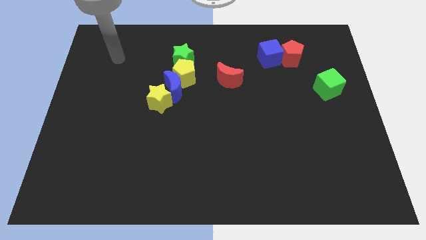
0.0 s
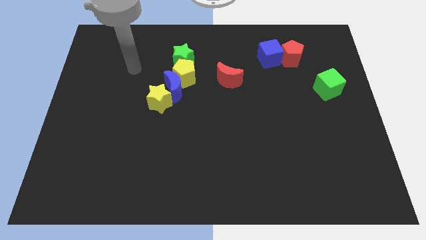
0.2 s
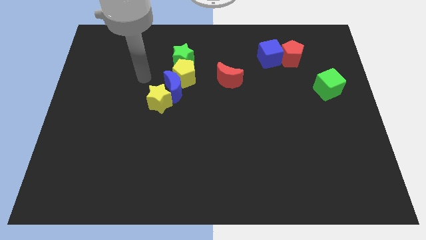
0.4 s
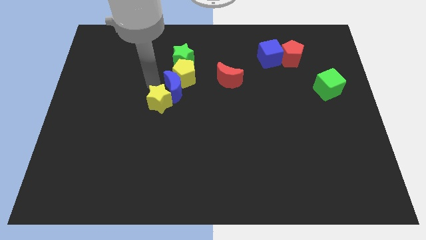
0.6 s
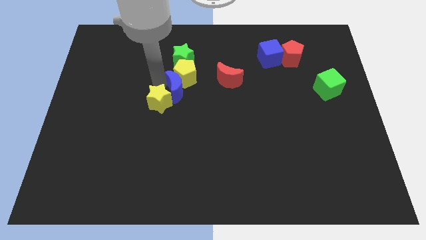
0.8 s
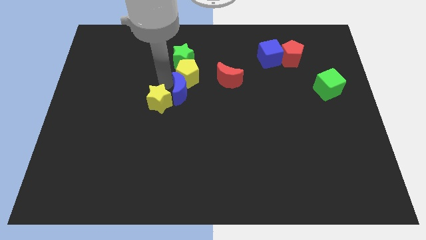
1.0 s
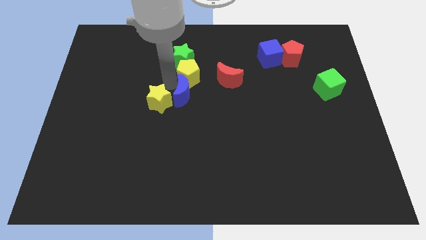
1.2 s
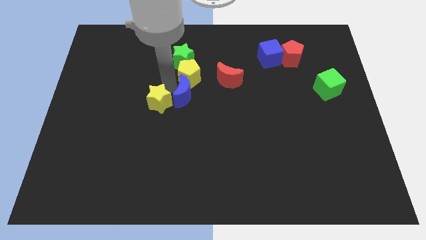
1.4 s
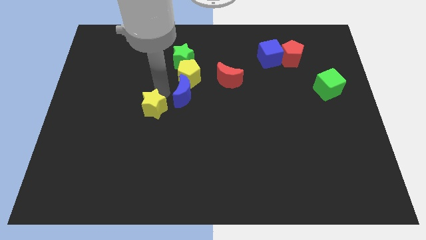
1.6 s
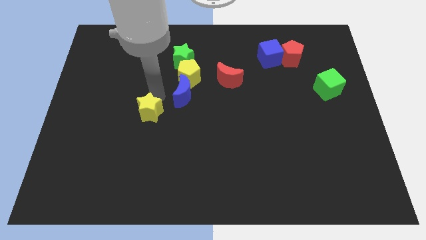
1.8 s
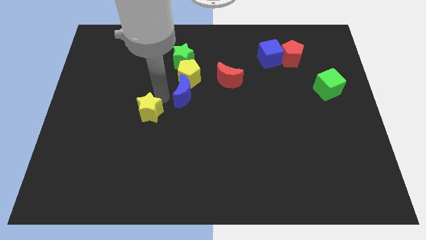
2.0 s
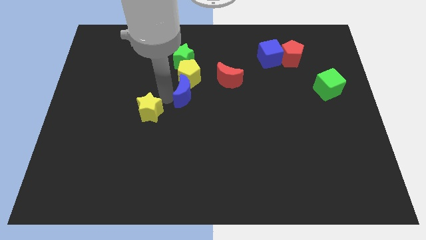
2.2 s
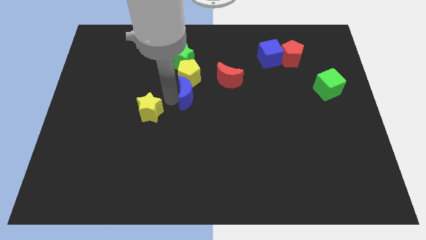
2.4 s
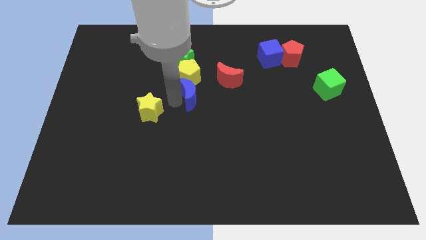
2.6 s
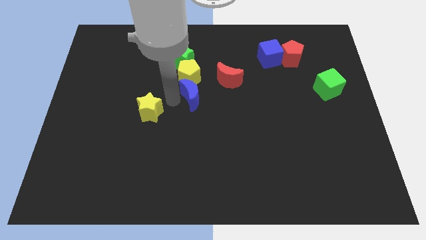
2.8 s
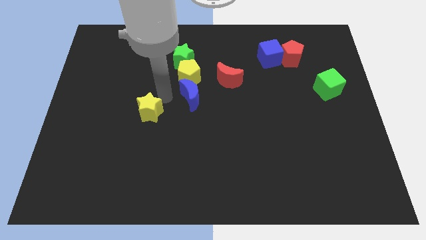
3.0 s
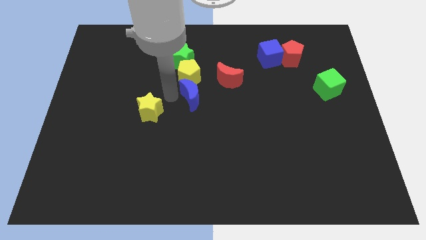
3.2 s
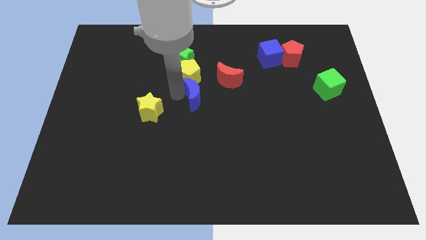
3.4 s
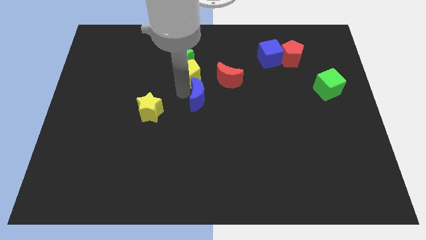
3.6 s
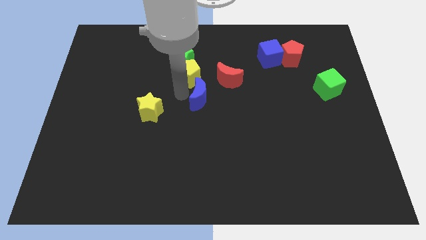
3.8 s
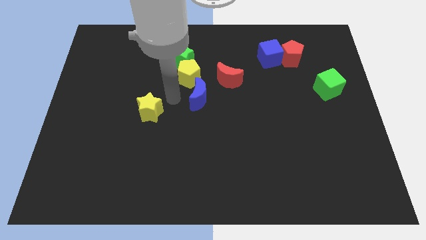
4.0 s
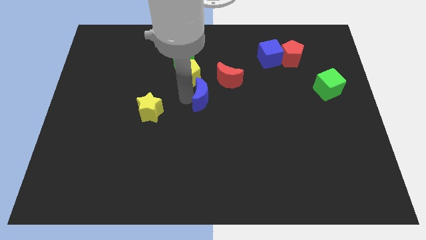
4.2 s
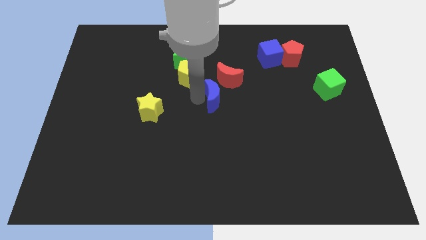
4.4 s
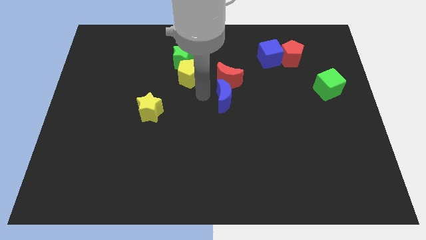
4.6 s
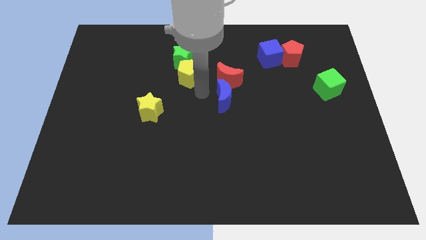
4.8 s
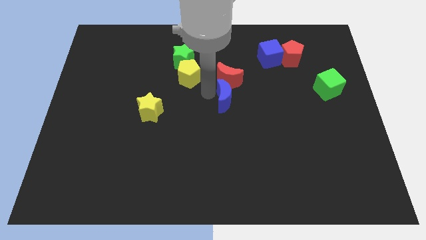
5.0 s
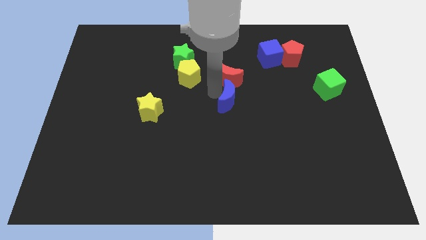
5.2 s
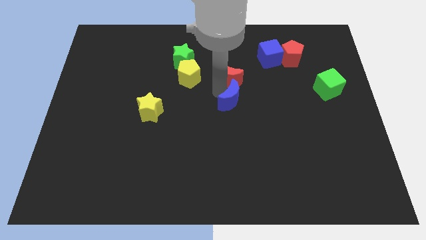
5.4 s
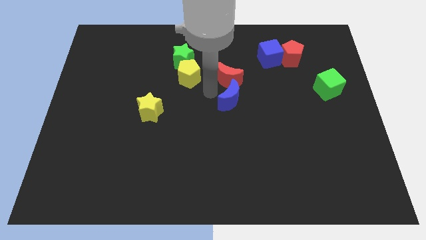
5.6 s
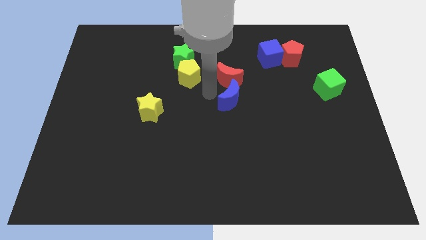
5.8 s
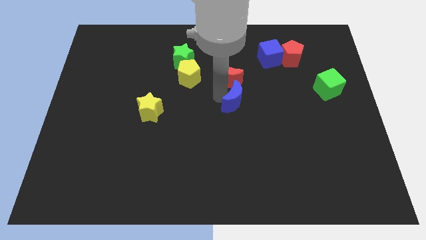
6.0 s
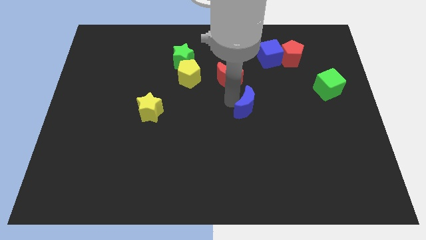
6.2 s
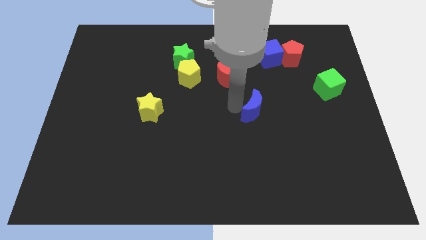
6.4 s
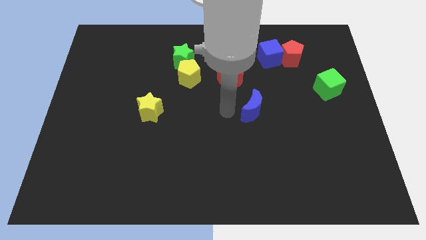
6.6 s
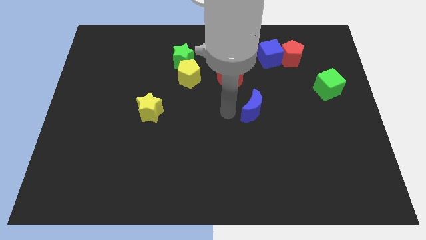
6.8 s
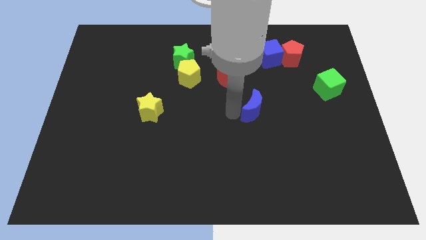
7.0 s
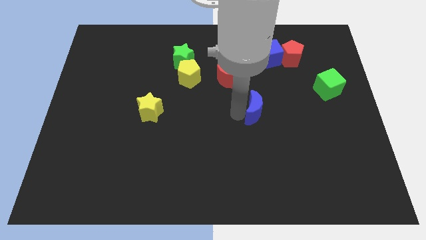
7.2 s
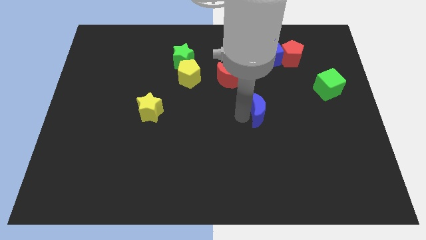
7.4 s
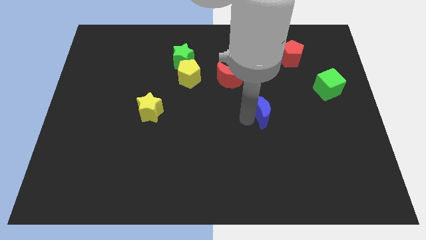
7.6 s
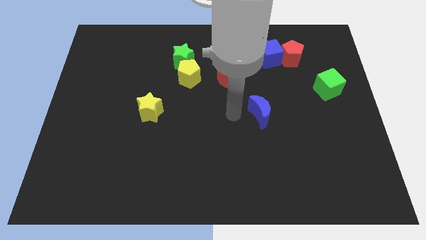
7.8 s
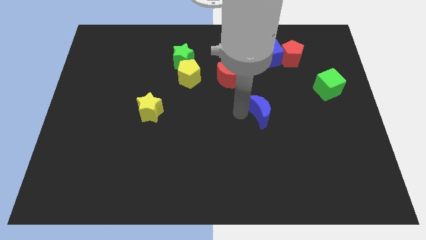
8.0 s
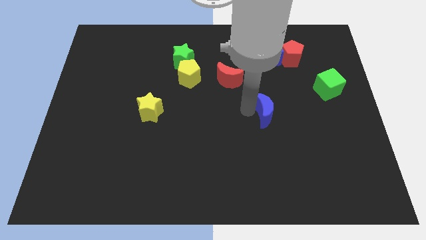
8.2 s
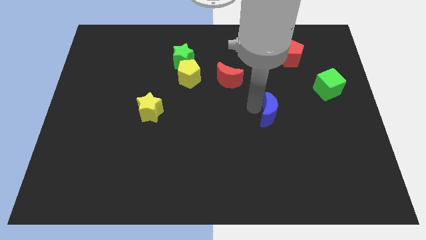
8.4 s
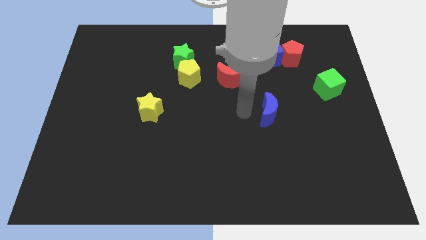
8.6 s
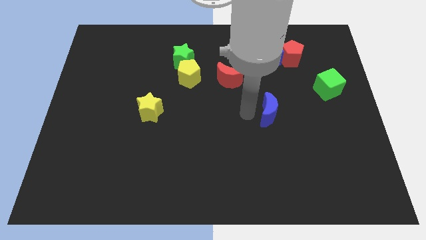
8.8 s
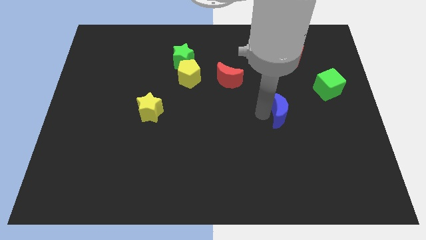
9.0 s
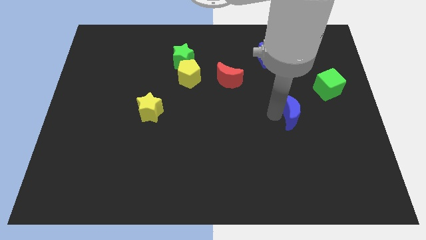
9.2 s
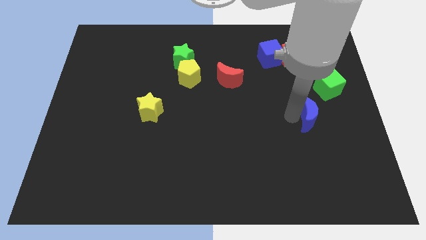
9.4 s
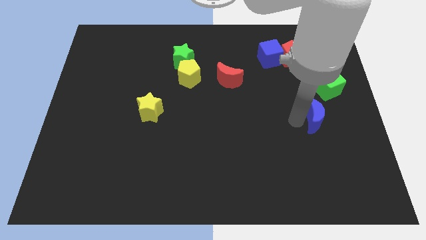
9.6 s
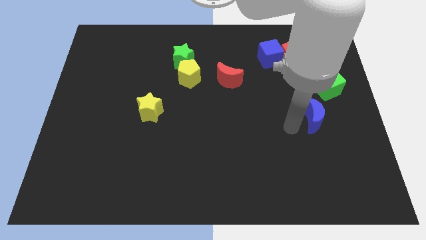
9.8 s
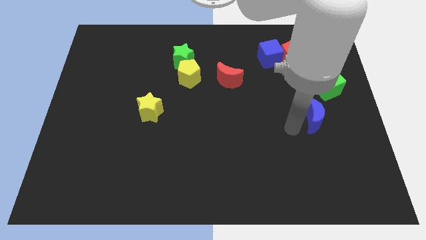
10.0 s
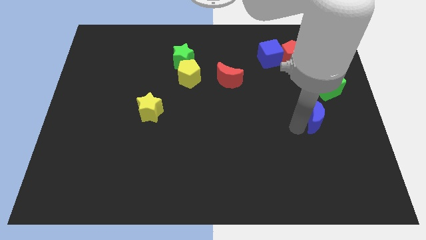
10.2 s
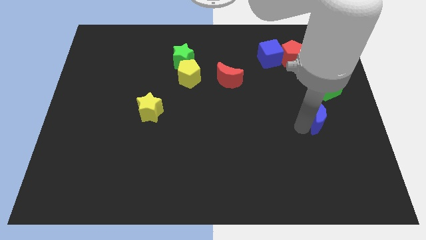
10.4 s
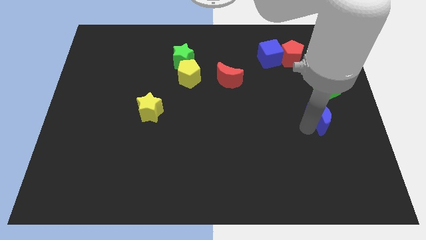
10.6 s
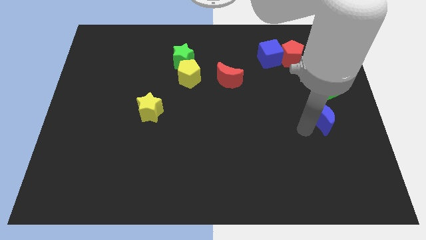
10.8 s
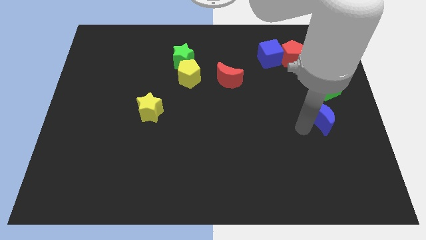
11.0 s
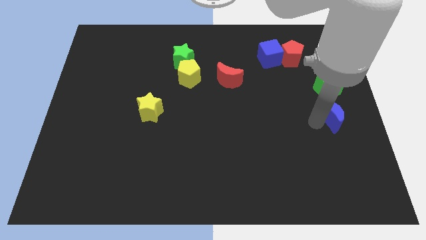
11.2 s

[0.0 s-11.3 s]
slide the blue moon to the right side of the board
